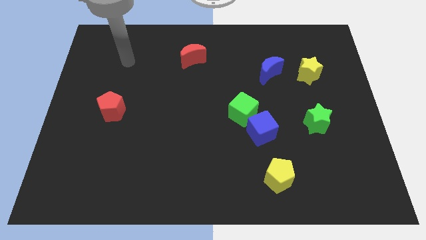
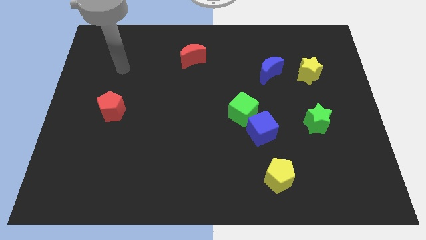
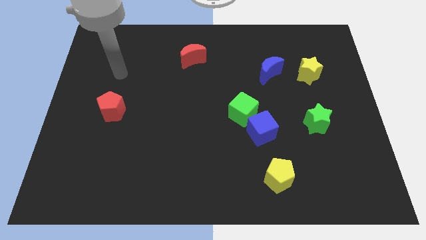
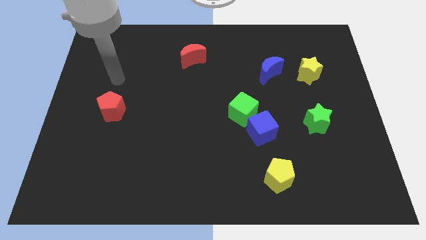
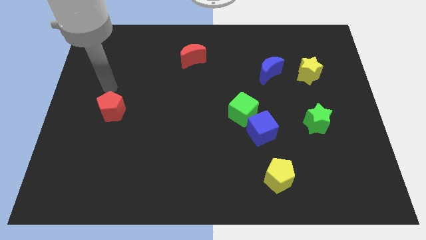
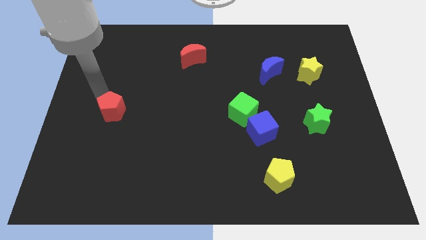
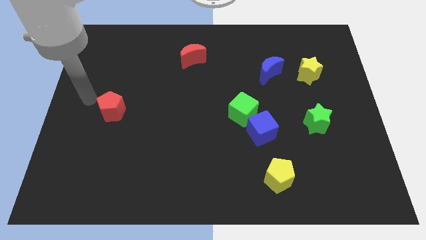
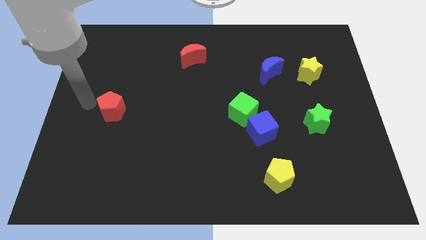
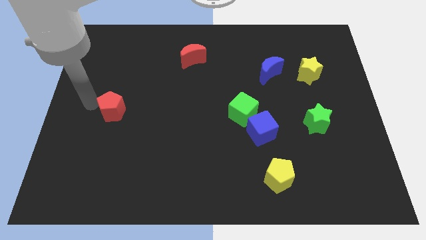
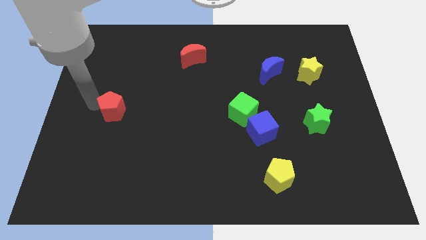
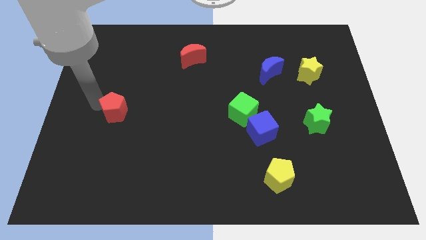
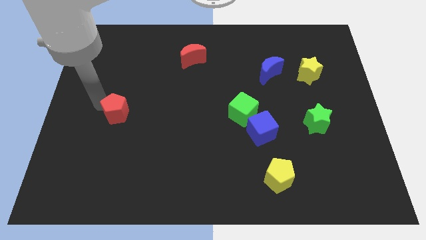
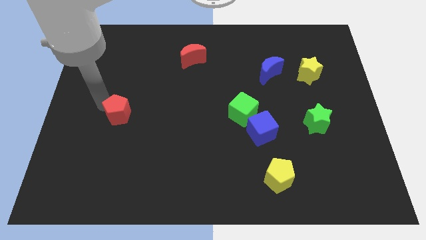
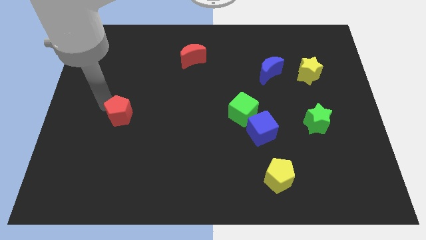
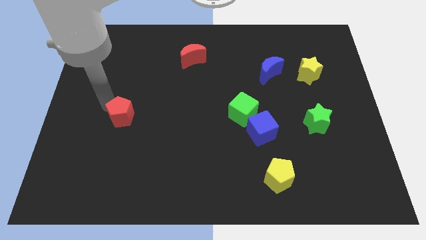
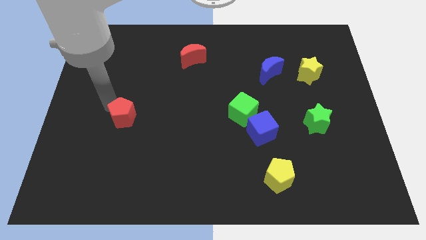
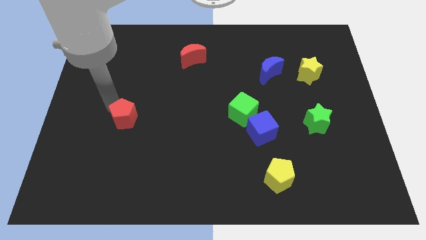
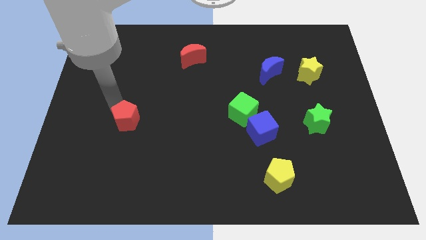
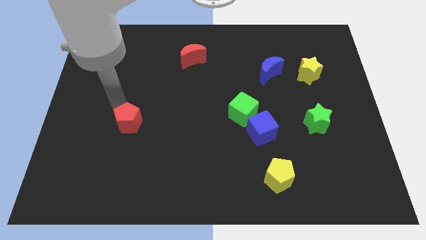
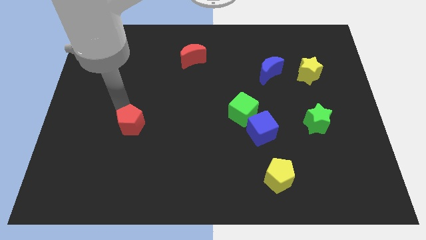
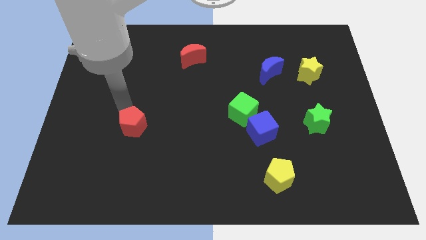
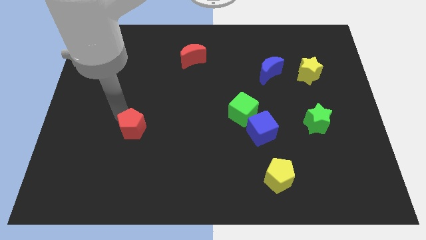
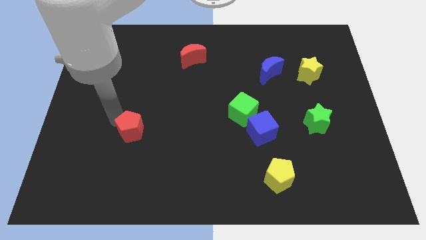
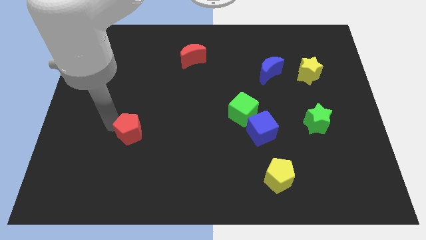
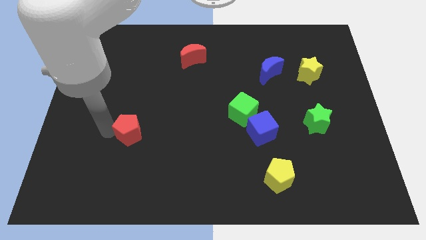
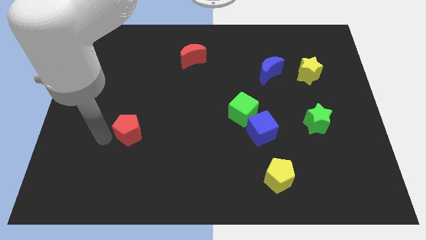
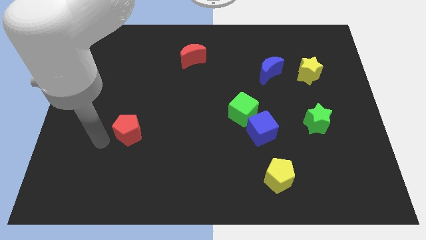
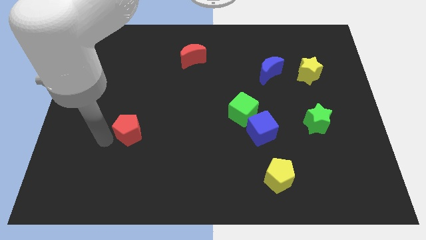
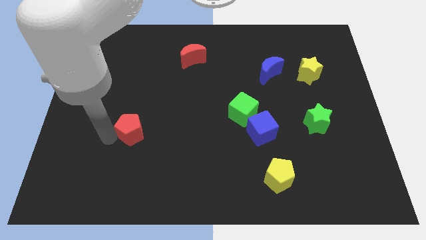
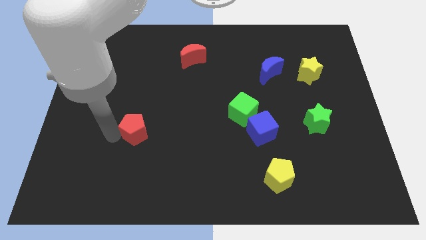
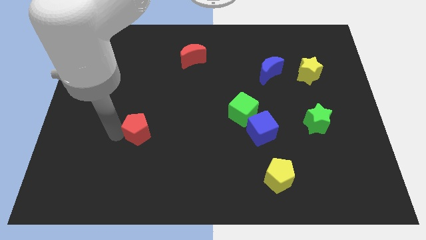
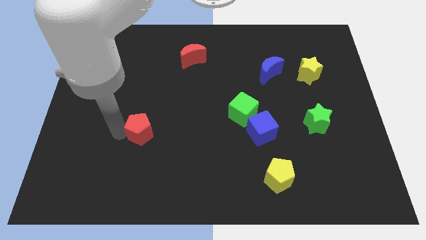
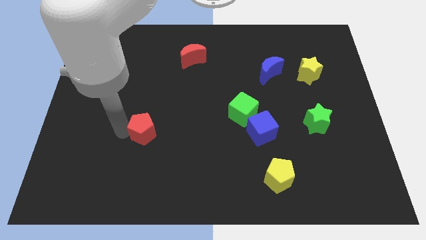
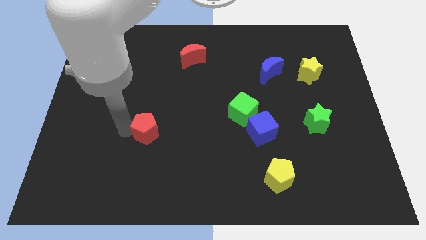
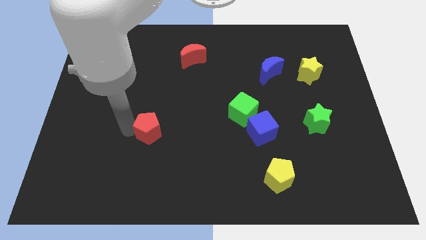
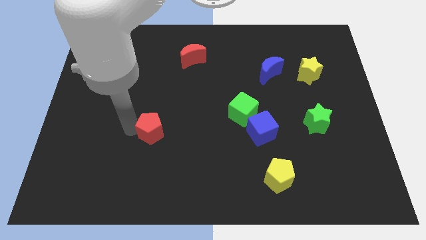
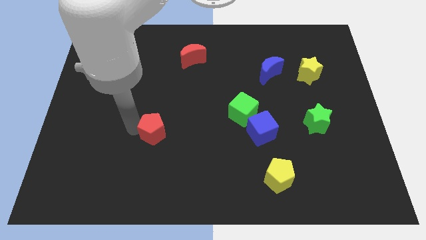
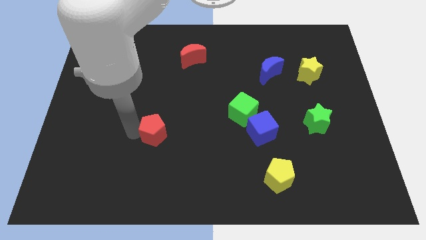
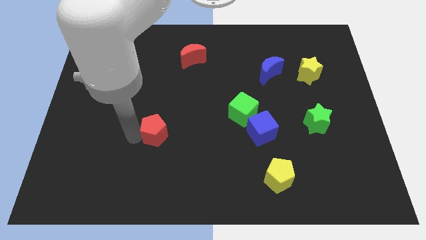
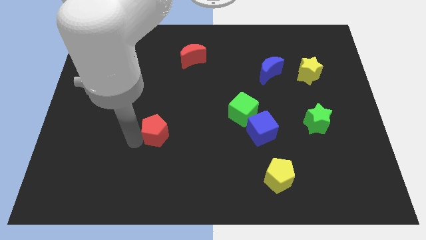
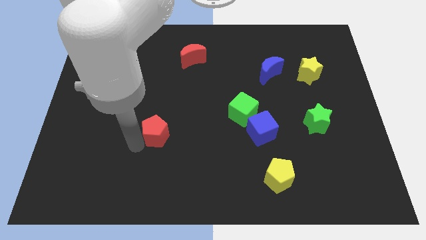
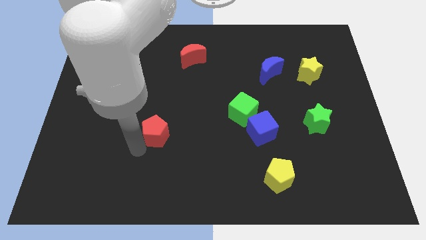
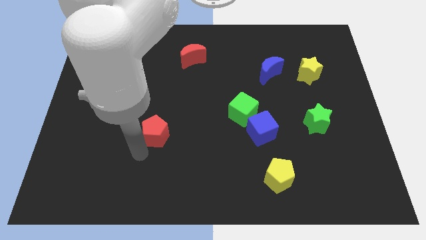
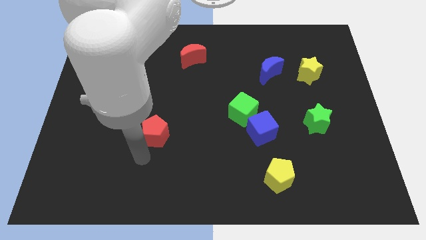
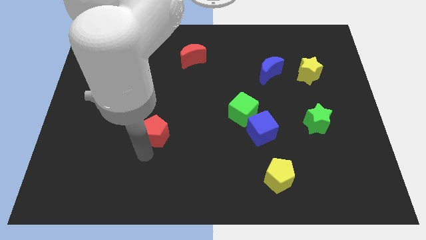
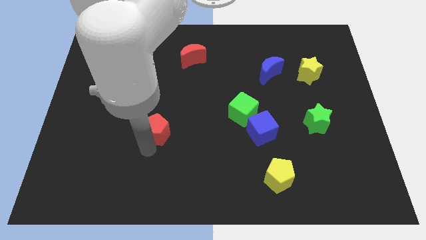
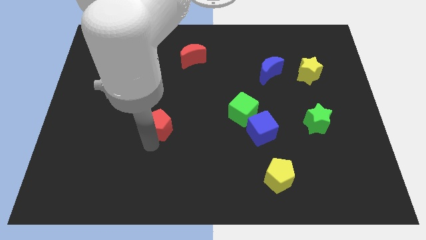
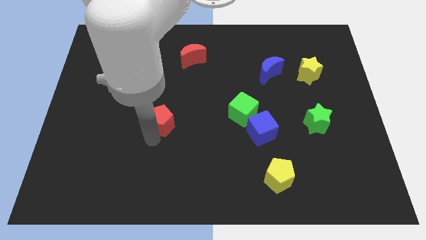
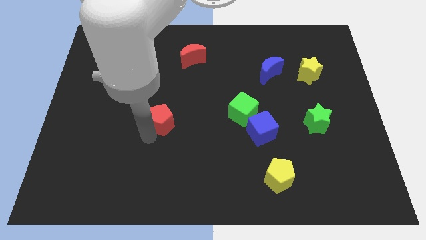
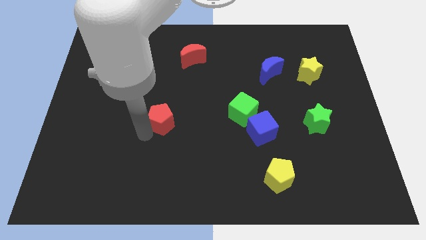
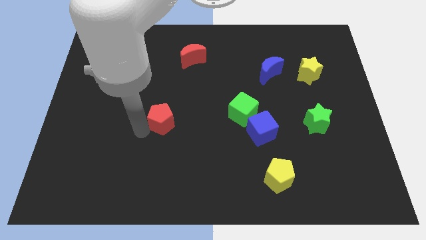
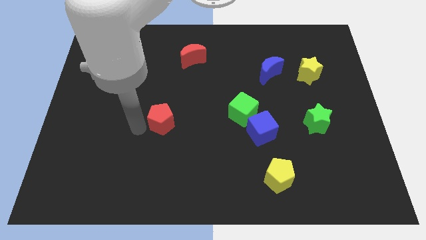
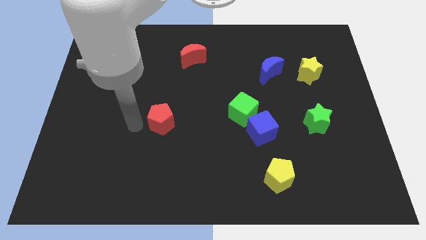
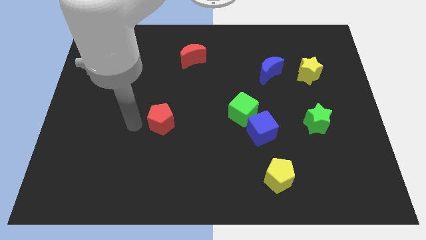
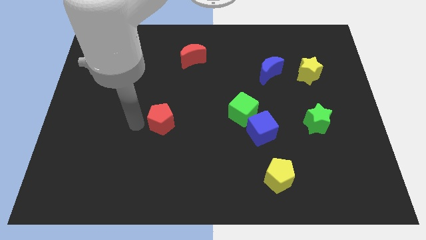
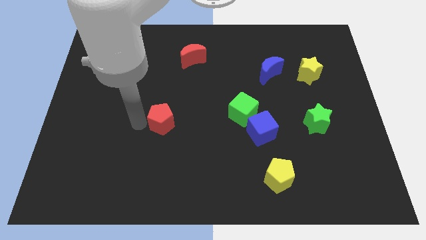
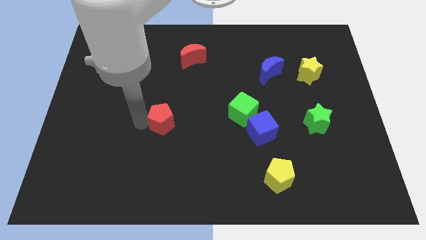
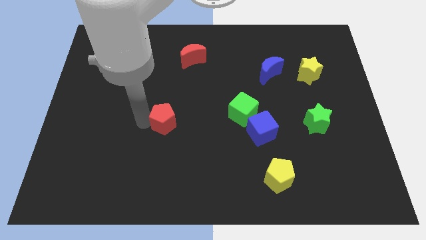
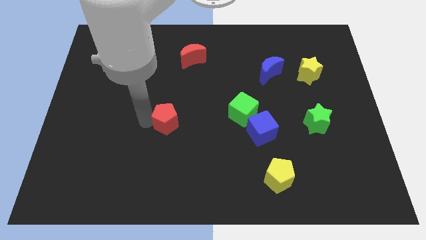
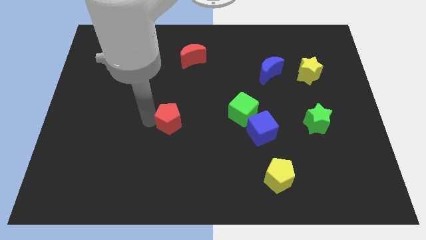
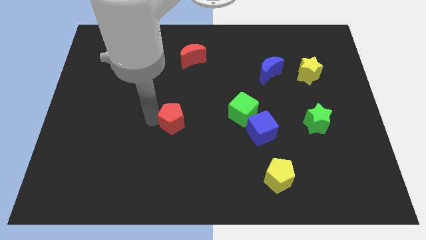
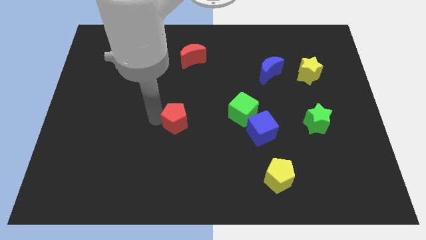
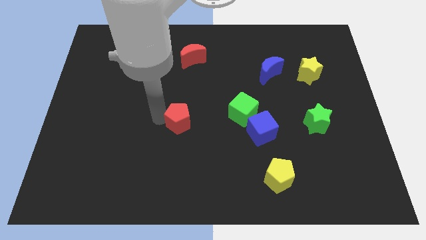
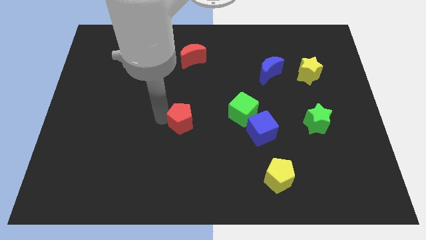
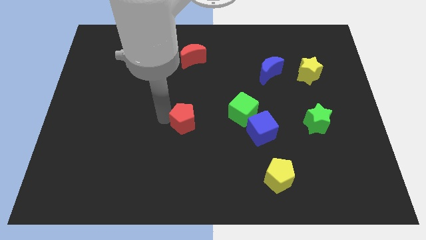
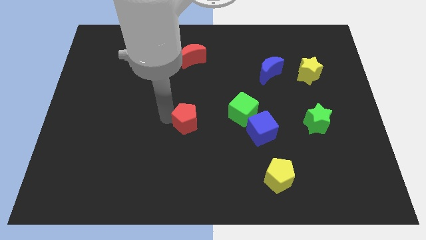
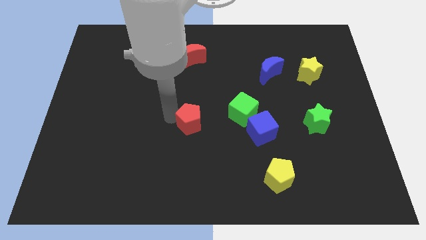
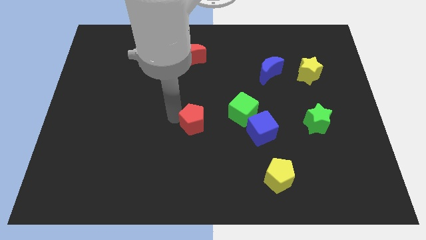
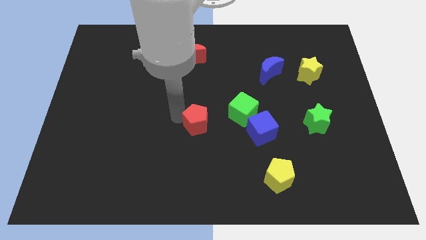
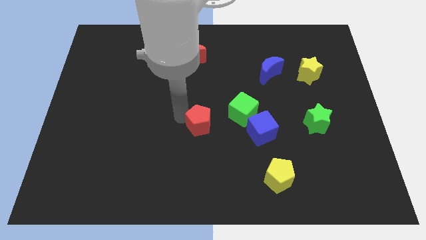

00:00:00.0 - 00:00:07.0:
slide the red pentagon to the bottom left side of the green cube

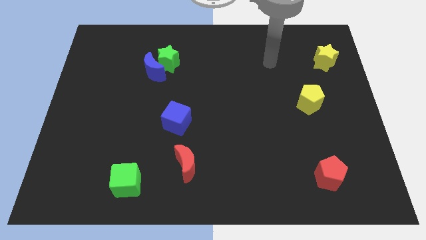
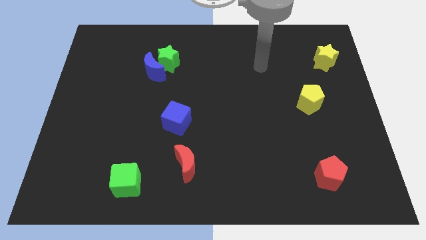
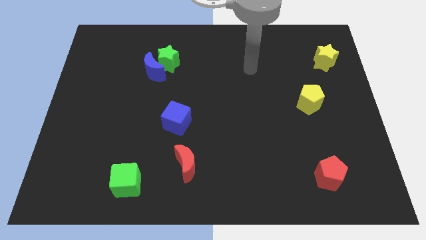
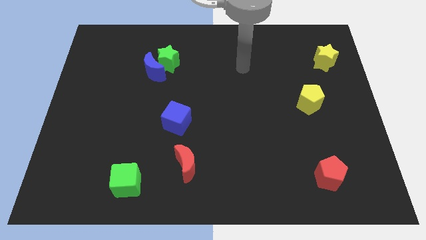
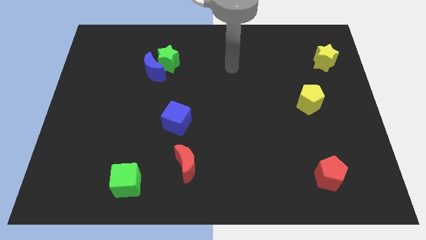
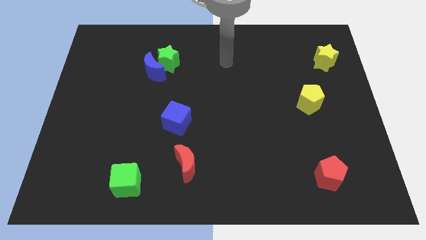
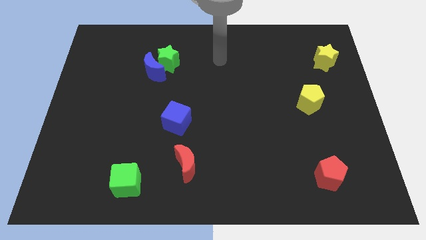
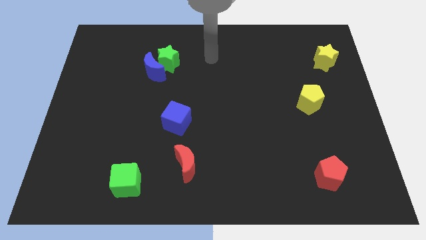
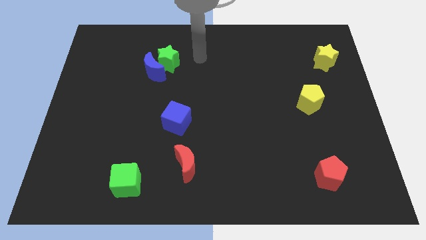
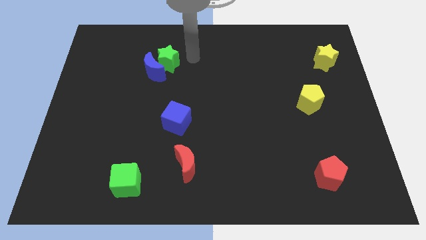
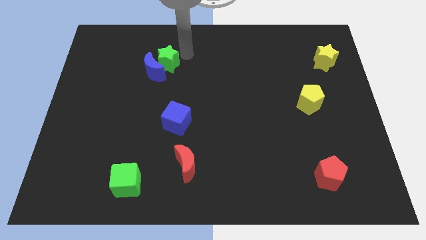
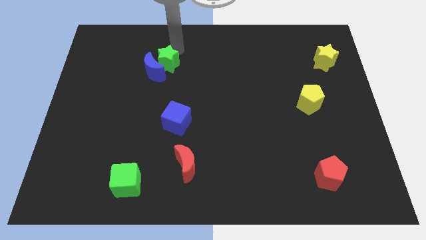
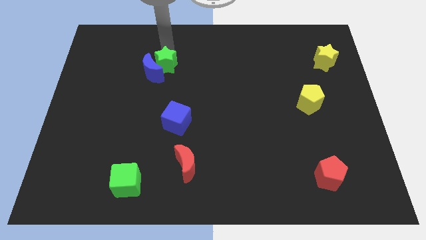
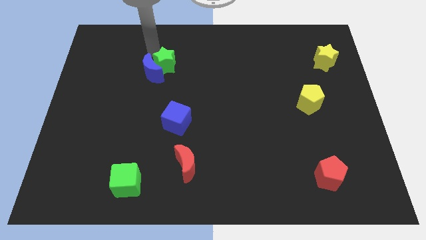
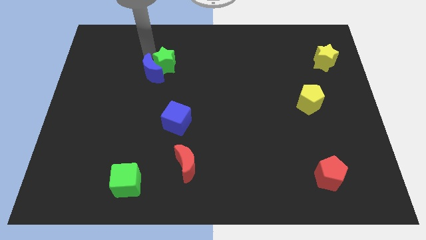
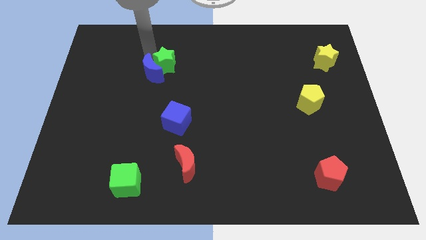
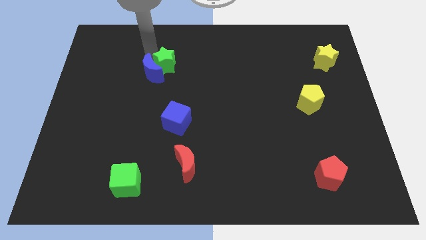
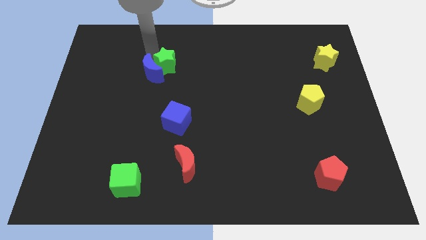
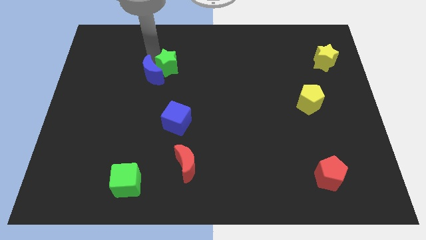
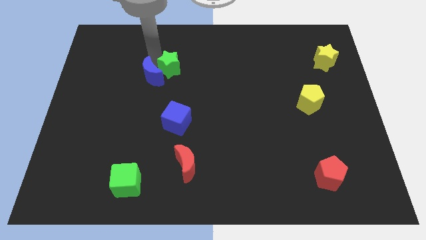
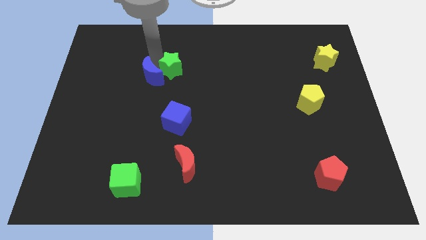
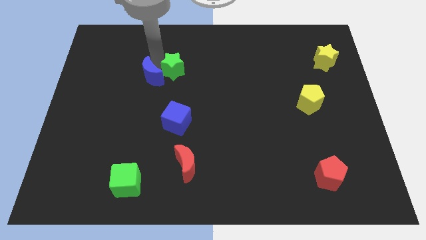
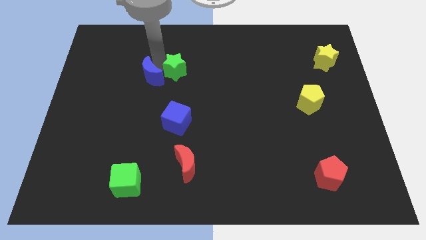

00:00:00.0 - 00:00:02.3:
put the green star to the top of the blue cube
